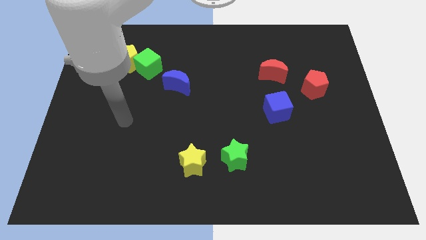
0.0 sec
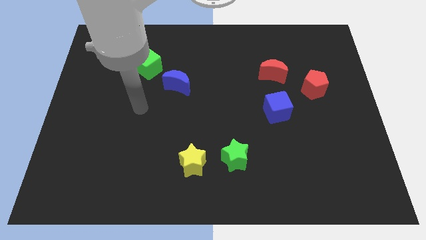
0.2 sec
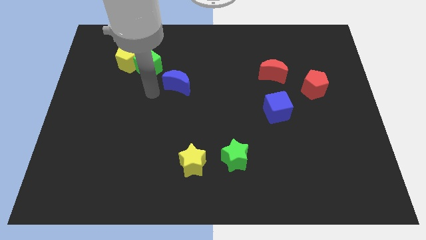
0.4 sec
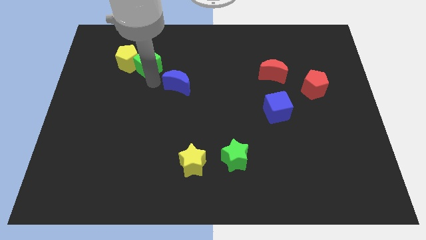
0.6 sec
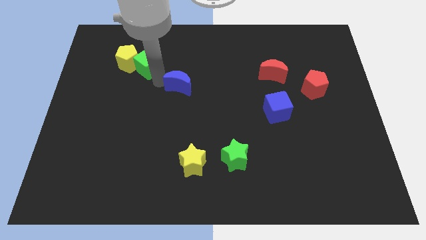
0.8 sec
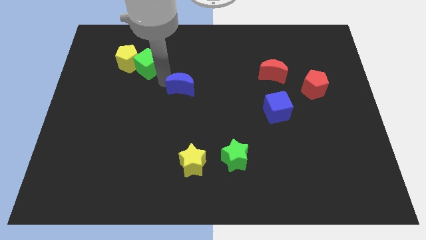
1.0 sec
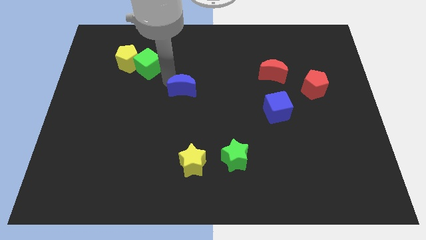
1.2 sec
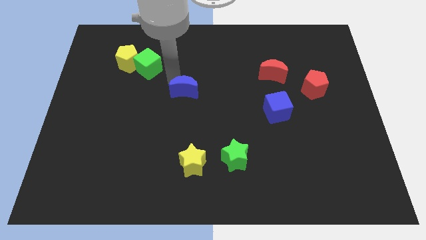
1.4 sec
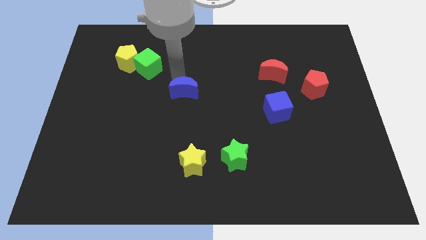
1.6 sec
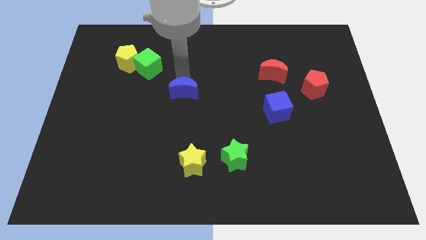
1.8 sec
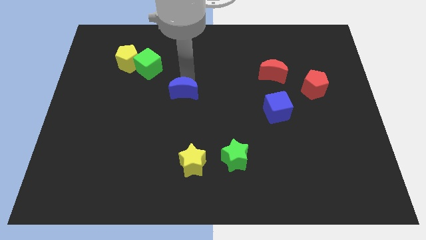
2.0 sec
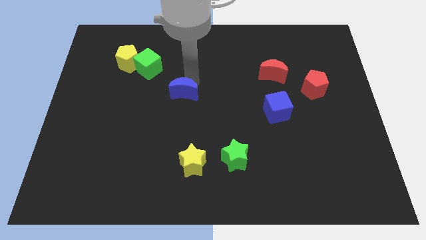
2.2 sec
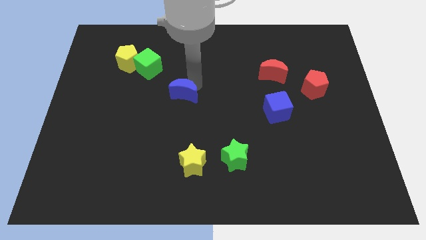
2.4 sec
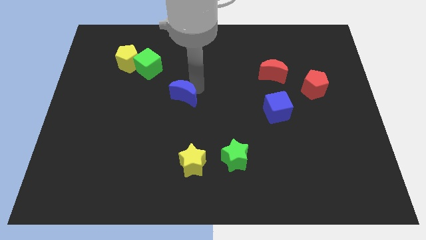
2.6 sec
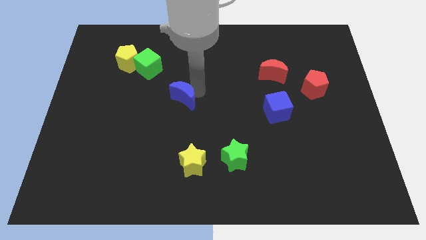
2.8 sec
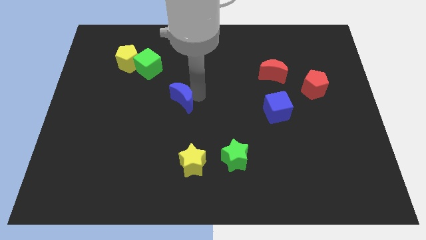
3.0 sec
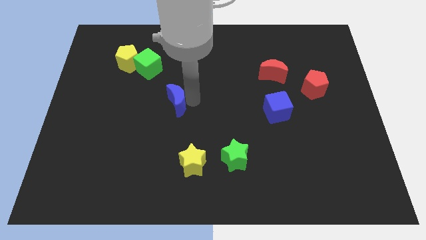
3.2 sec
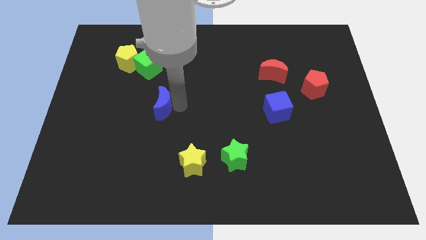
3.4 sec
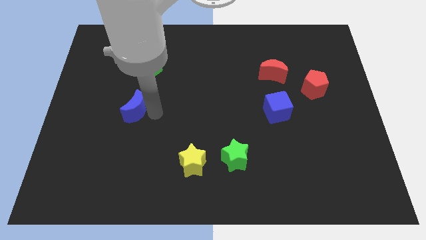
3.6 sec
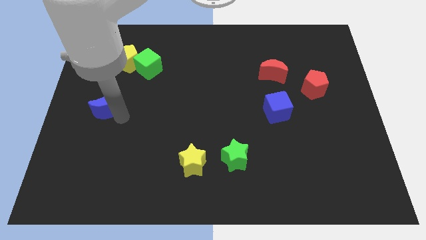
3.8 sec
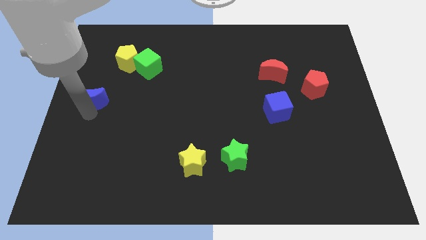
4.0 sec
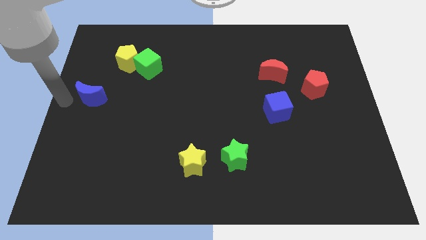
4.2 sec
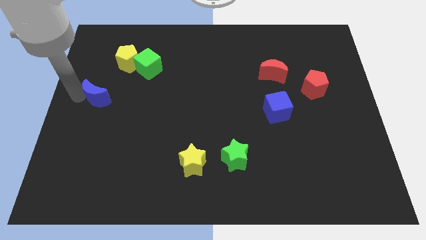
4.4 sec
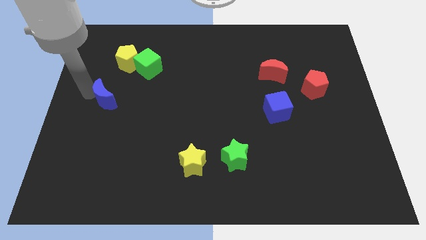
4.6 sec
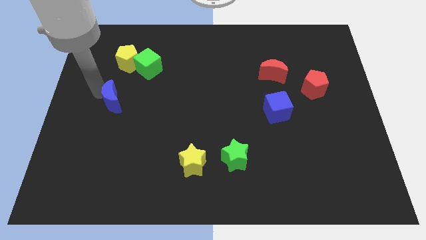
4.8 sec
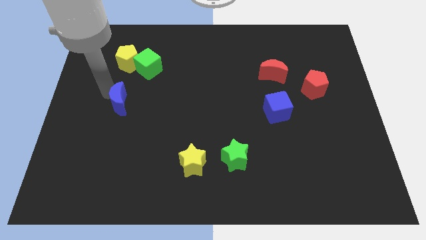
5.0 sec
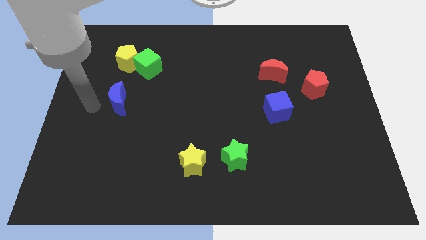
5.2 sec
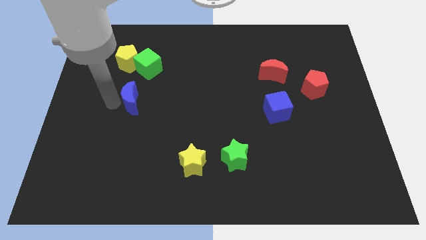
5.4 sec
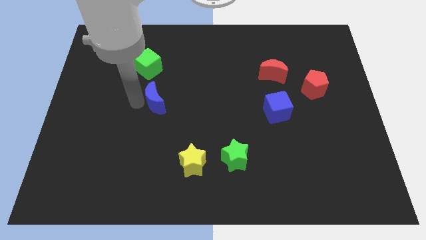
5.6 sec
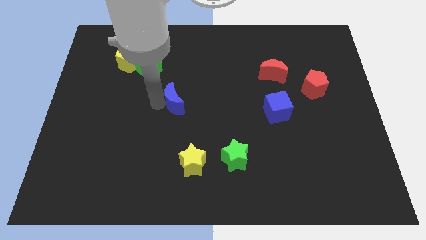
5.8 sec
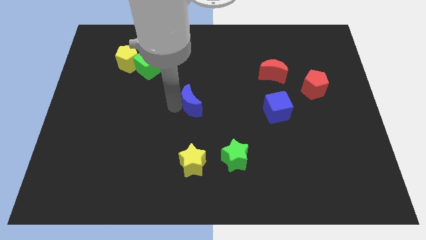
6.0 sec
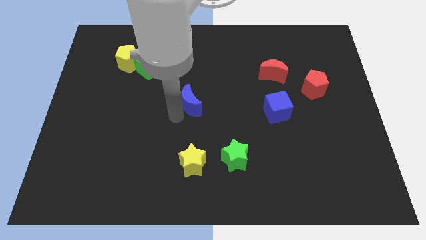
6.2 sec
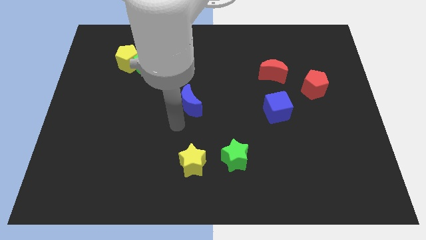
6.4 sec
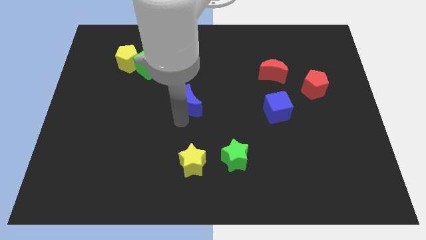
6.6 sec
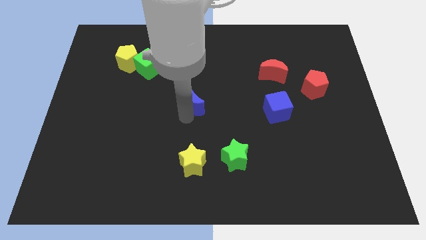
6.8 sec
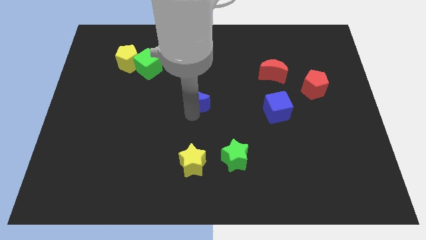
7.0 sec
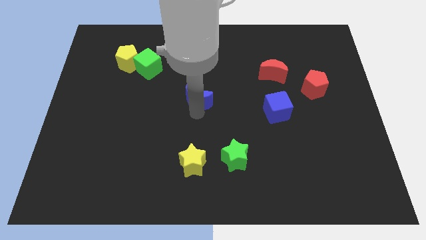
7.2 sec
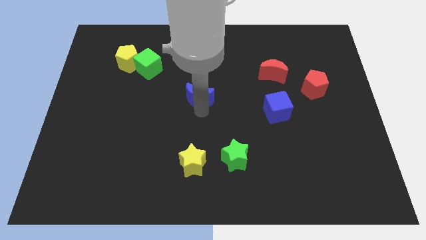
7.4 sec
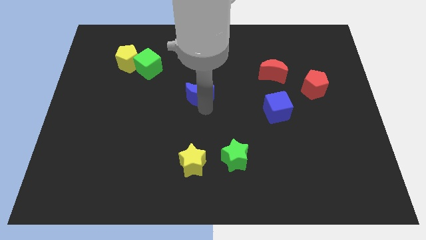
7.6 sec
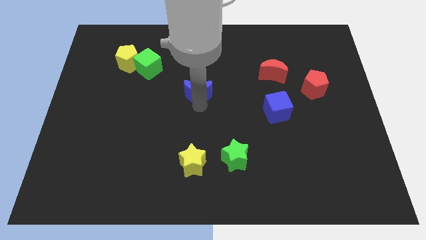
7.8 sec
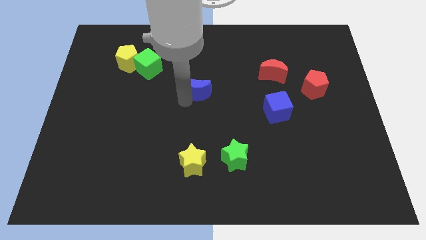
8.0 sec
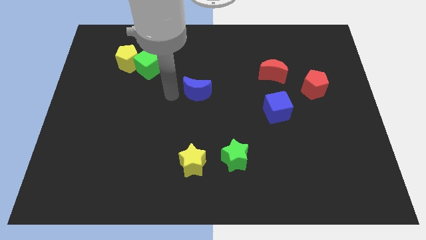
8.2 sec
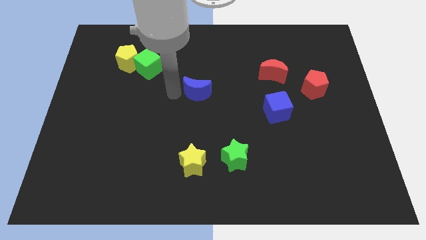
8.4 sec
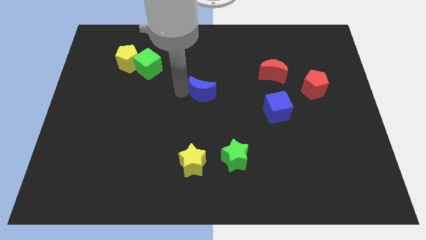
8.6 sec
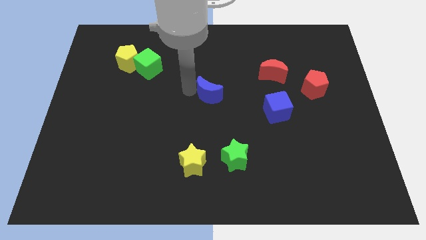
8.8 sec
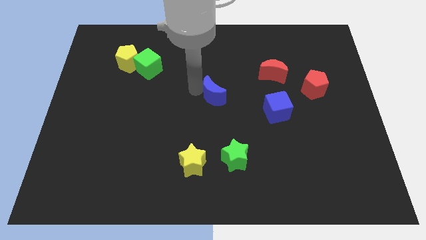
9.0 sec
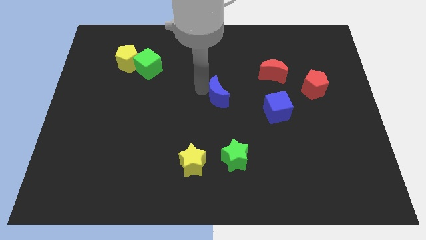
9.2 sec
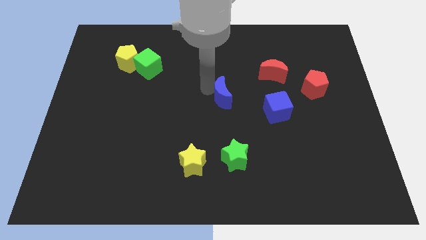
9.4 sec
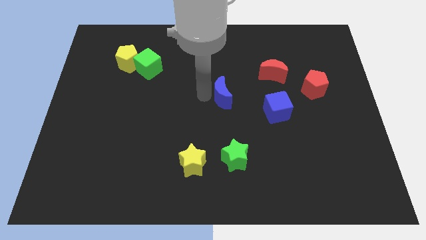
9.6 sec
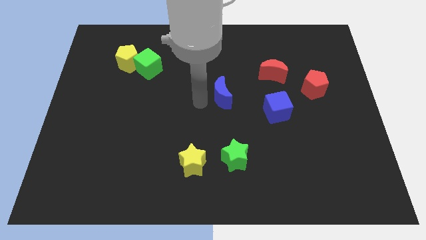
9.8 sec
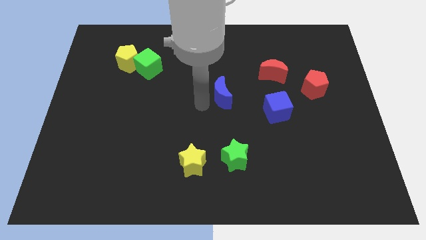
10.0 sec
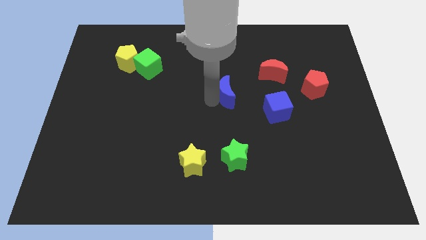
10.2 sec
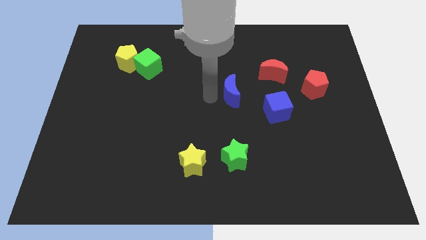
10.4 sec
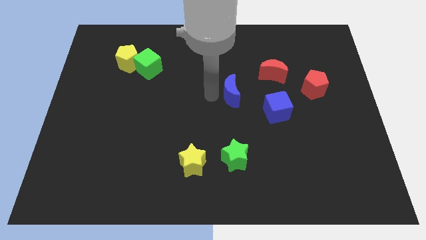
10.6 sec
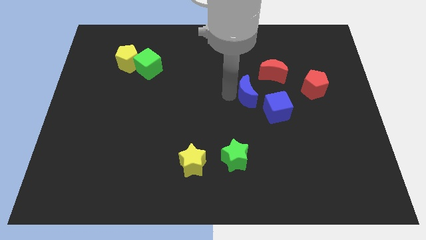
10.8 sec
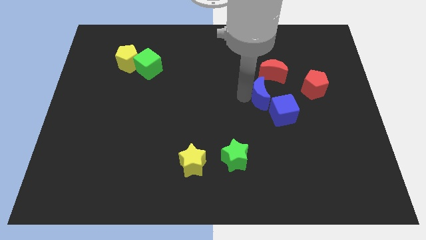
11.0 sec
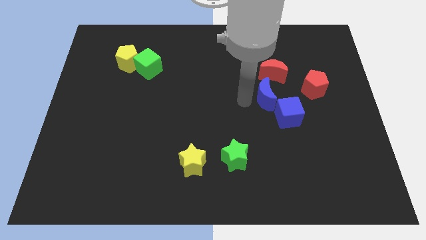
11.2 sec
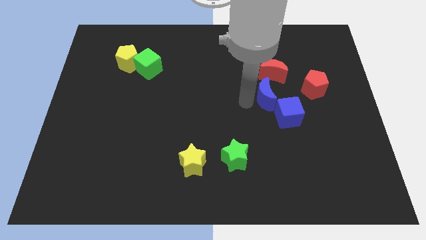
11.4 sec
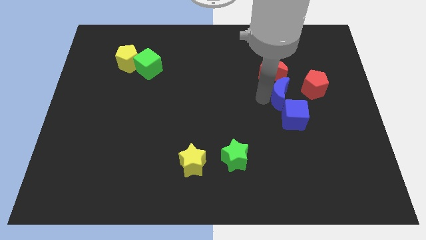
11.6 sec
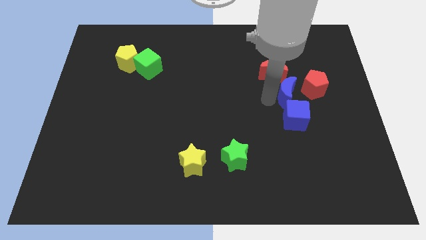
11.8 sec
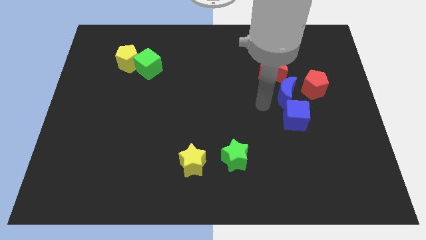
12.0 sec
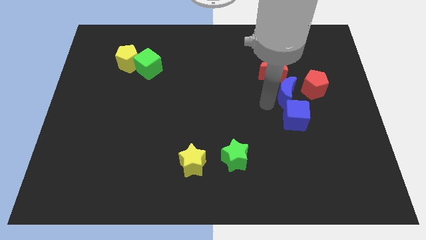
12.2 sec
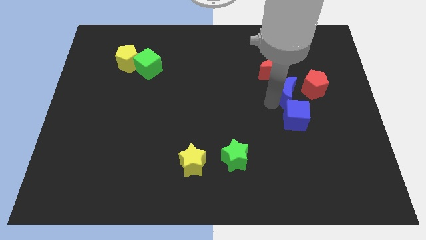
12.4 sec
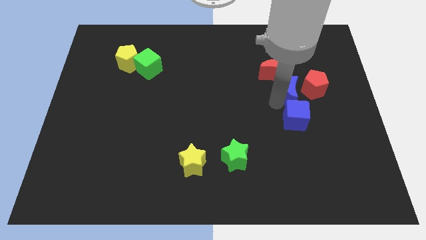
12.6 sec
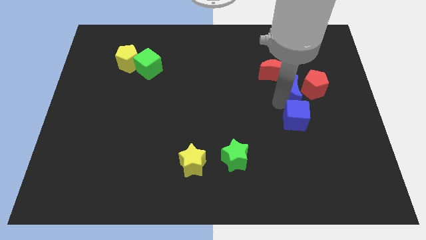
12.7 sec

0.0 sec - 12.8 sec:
put the blue moon to the red pentagon

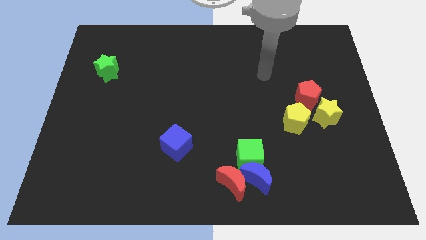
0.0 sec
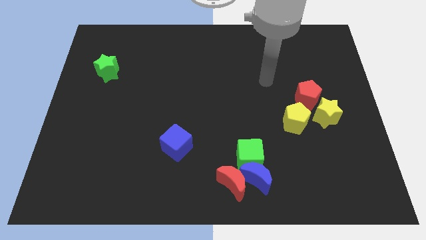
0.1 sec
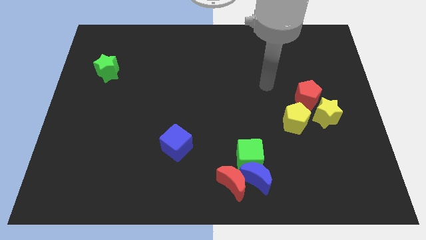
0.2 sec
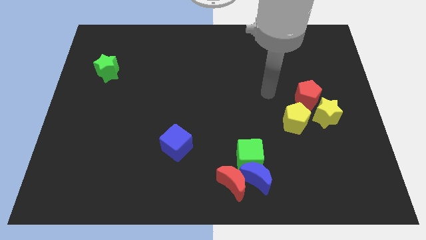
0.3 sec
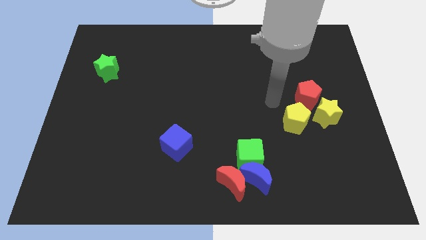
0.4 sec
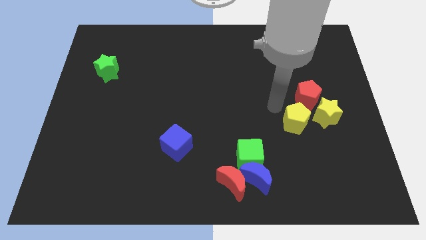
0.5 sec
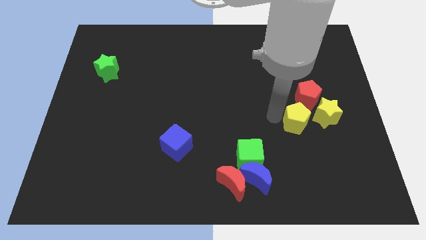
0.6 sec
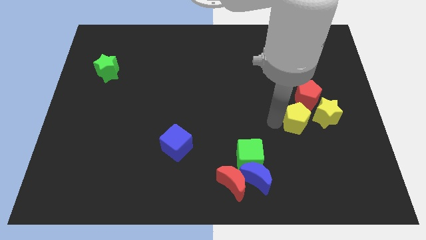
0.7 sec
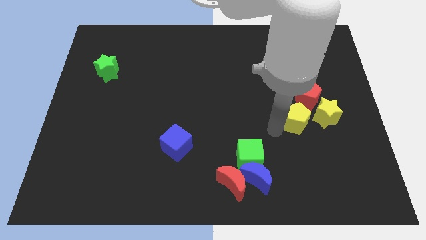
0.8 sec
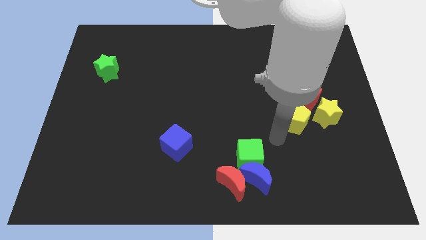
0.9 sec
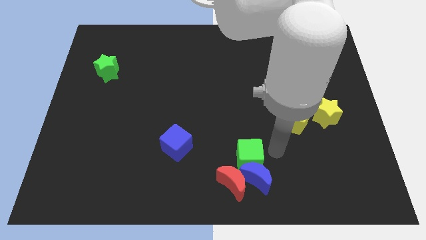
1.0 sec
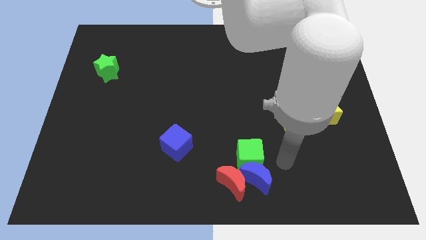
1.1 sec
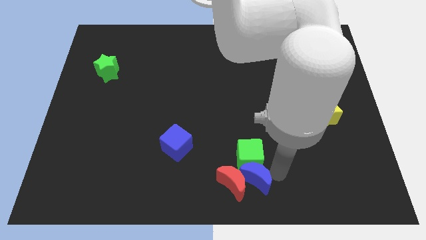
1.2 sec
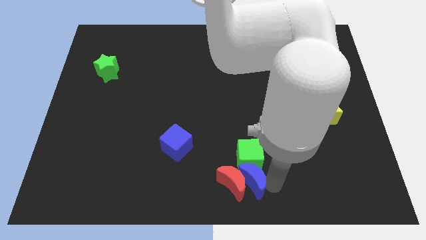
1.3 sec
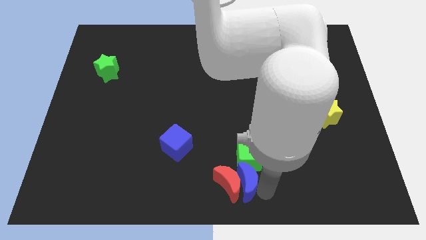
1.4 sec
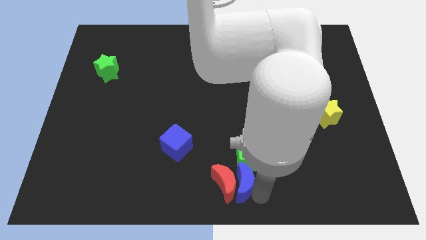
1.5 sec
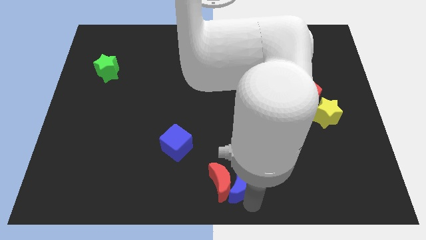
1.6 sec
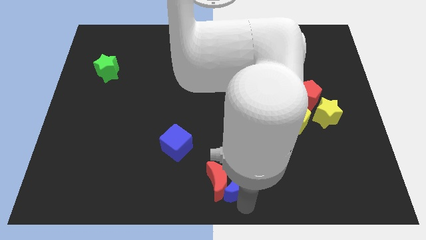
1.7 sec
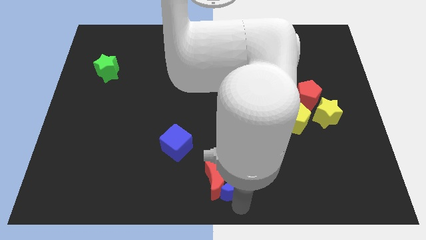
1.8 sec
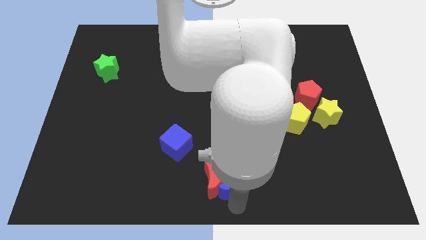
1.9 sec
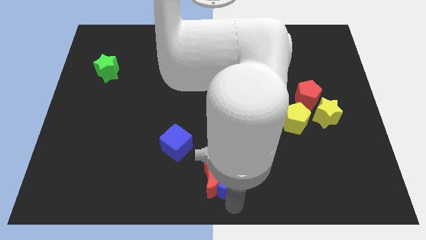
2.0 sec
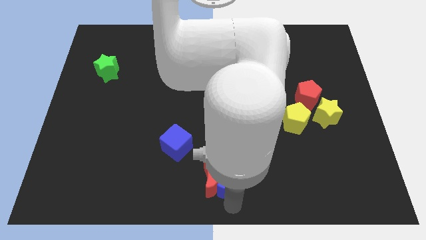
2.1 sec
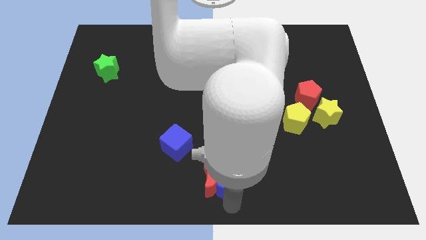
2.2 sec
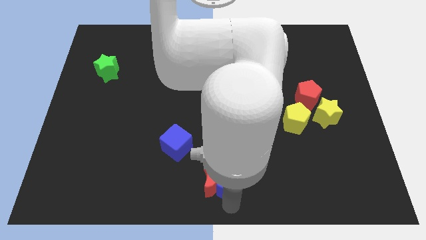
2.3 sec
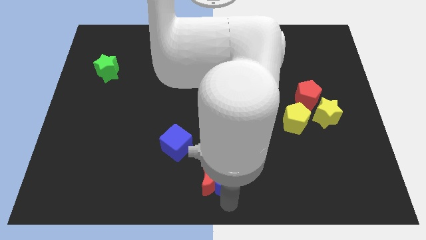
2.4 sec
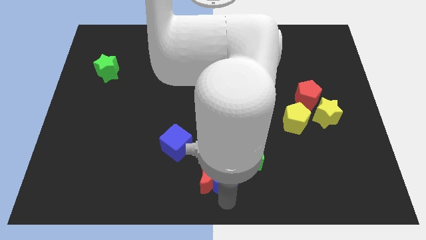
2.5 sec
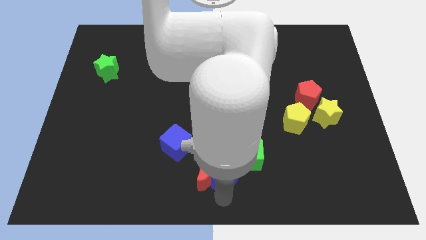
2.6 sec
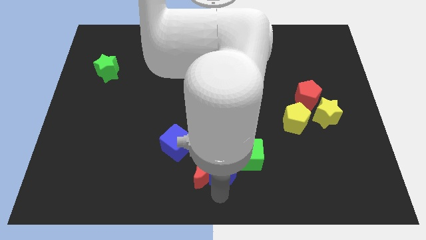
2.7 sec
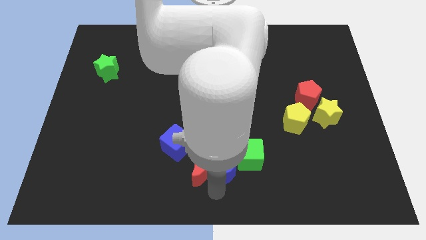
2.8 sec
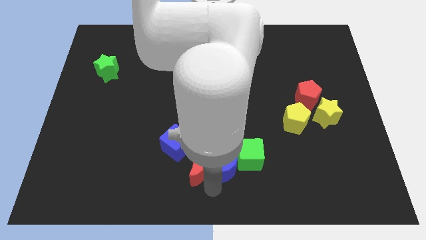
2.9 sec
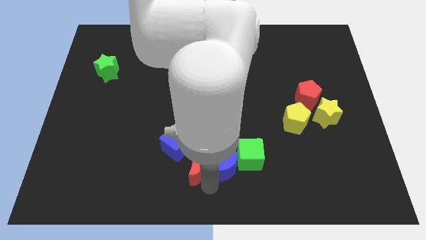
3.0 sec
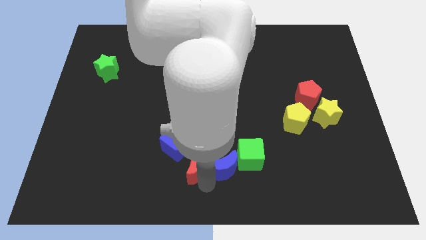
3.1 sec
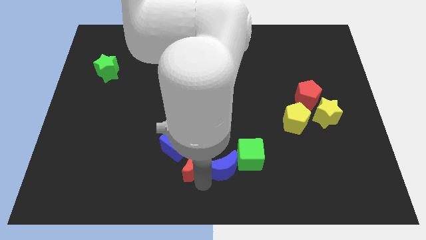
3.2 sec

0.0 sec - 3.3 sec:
move the red moon next to the blue cube
